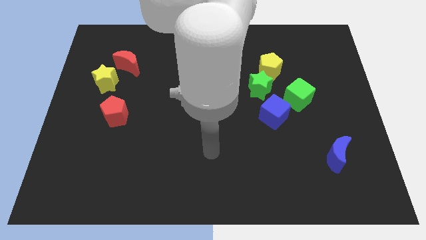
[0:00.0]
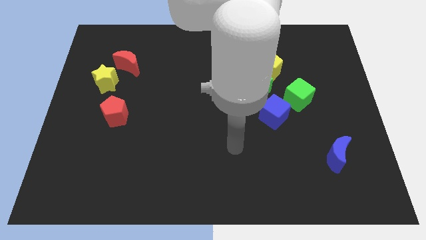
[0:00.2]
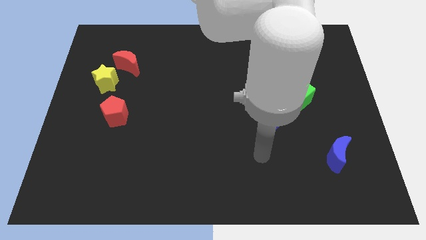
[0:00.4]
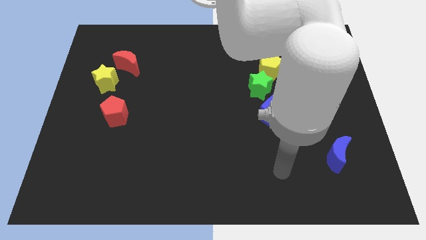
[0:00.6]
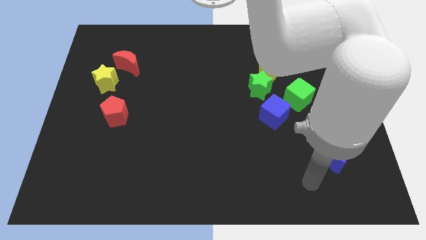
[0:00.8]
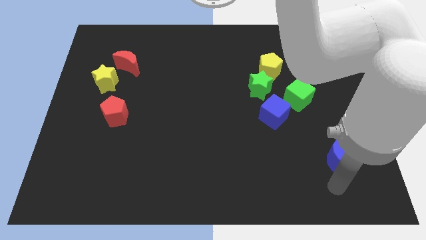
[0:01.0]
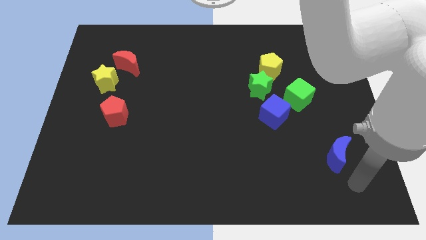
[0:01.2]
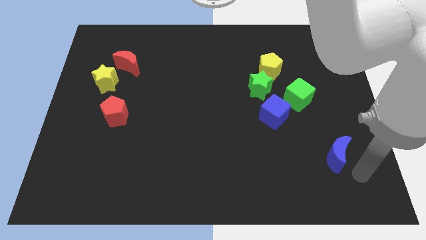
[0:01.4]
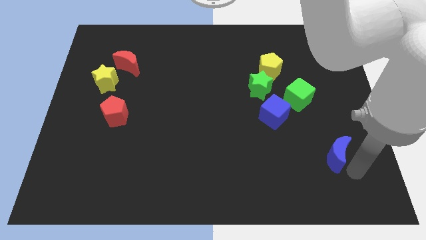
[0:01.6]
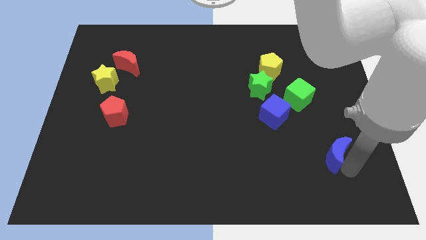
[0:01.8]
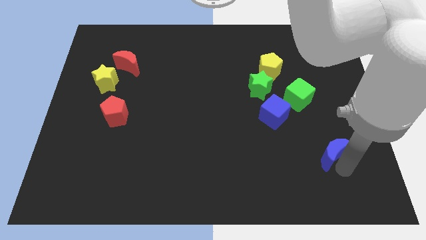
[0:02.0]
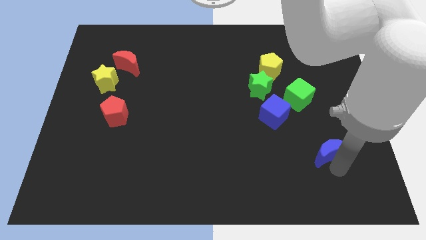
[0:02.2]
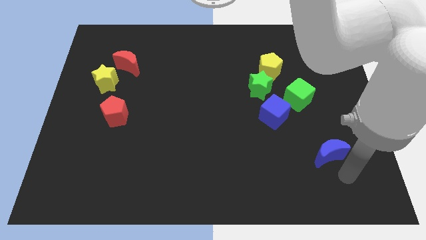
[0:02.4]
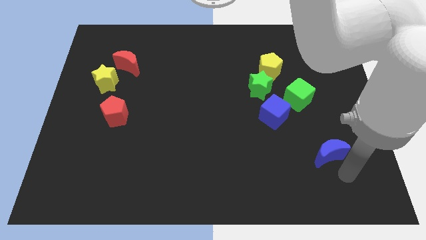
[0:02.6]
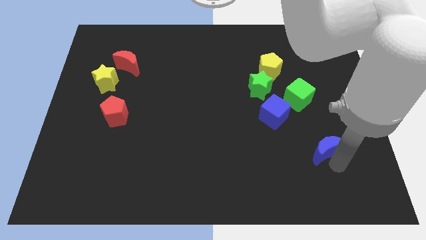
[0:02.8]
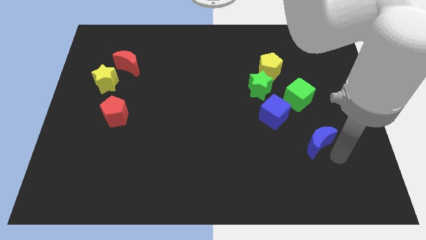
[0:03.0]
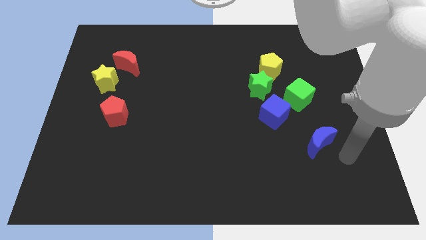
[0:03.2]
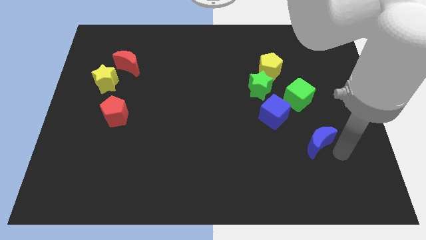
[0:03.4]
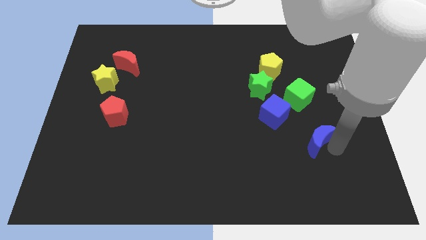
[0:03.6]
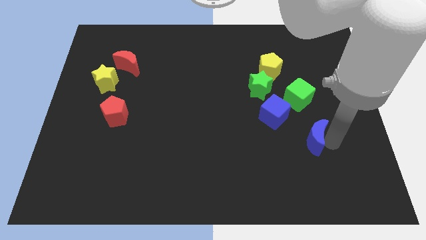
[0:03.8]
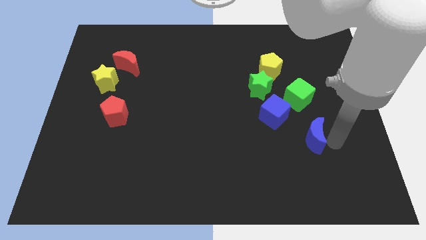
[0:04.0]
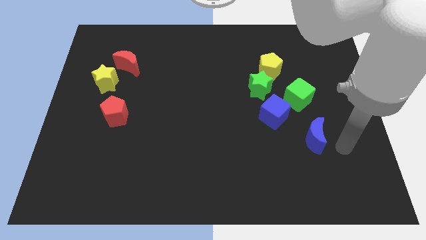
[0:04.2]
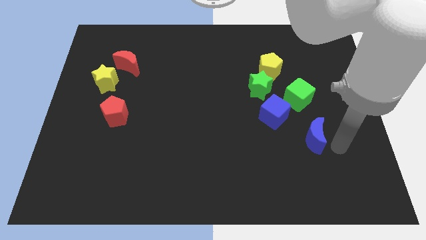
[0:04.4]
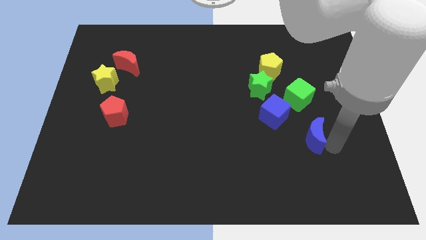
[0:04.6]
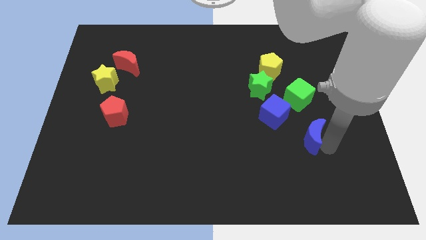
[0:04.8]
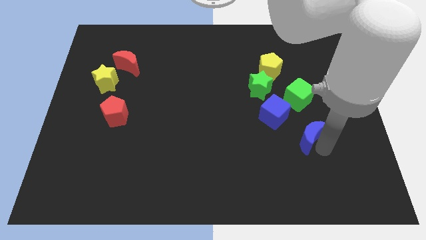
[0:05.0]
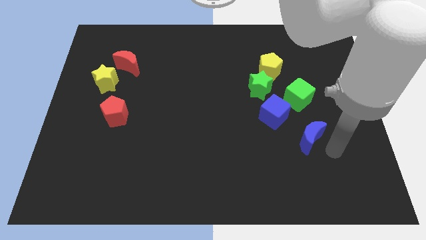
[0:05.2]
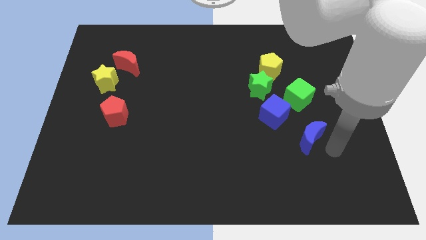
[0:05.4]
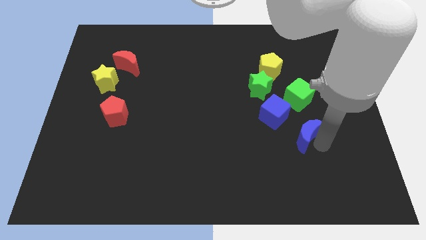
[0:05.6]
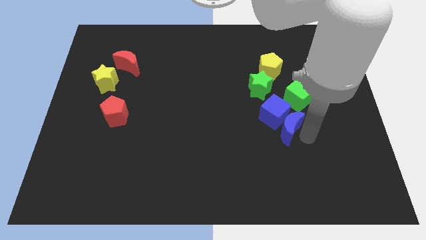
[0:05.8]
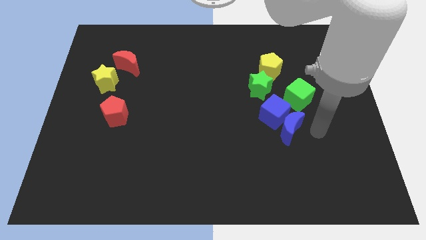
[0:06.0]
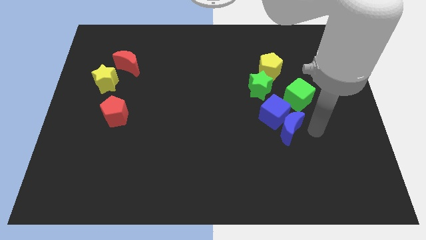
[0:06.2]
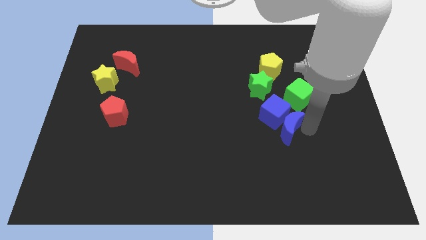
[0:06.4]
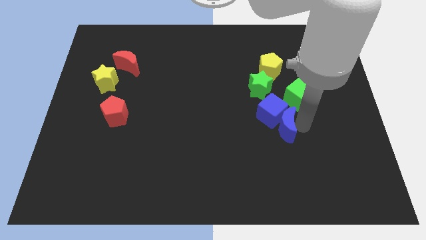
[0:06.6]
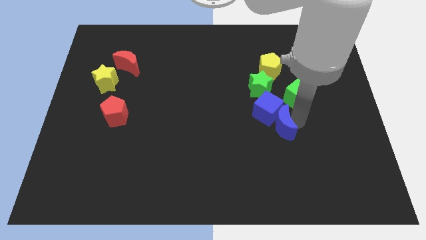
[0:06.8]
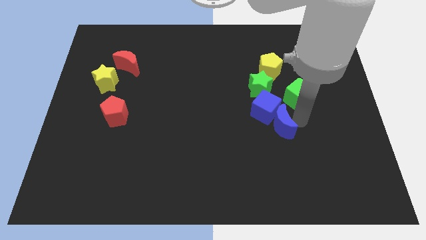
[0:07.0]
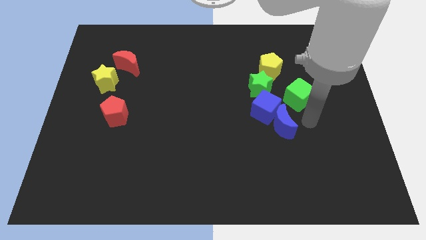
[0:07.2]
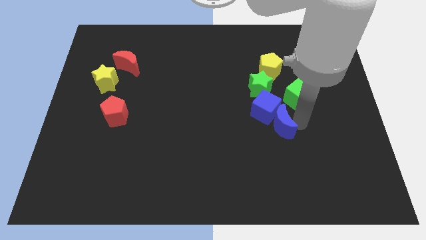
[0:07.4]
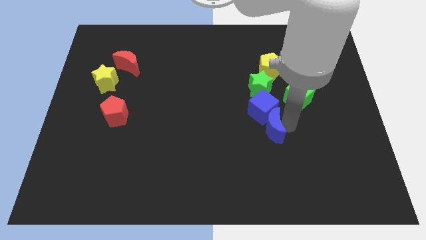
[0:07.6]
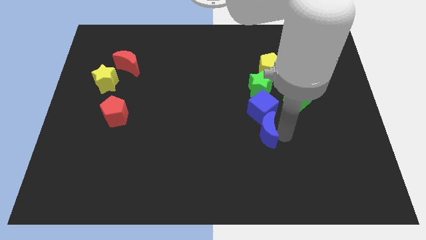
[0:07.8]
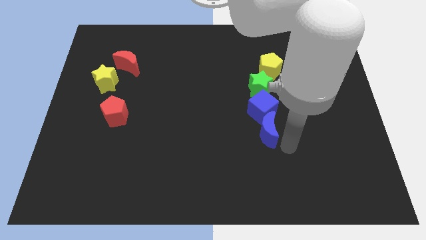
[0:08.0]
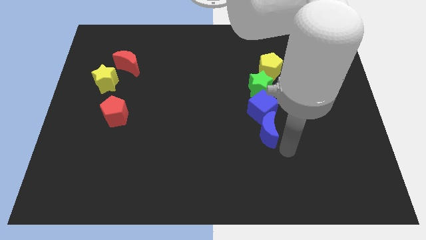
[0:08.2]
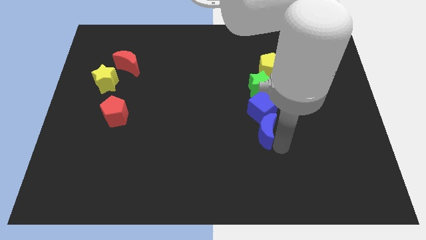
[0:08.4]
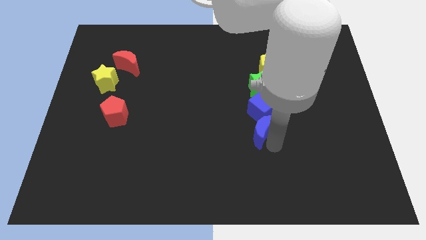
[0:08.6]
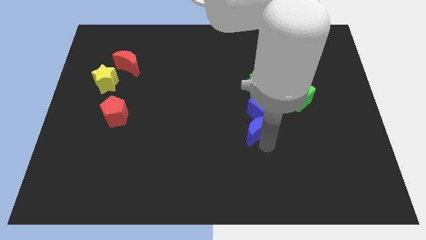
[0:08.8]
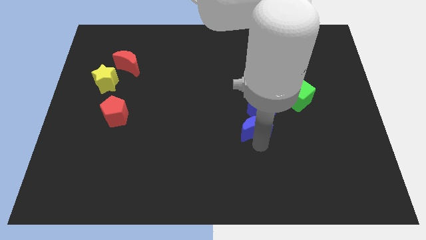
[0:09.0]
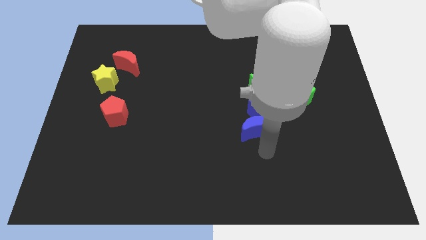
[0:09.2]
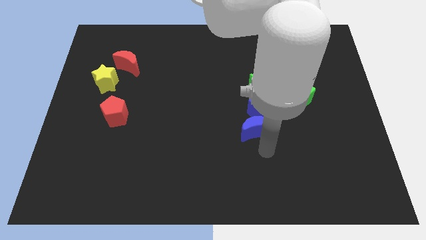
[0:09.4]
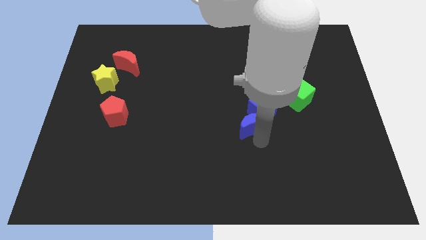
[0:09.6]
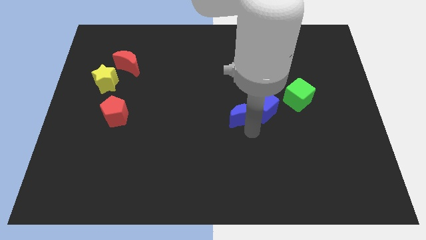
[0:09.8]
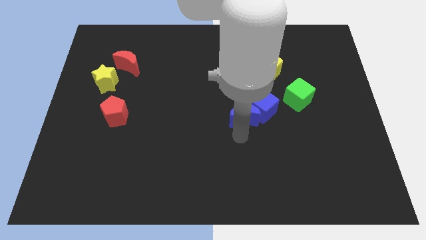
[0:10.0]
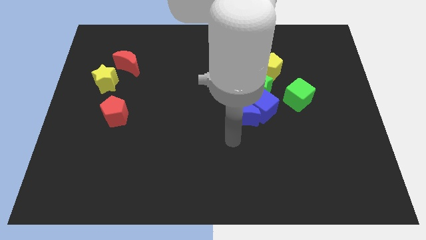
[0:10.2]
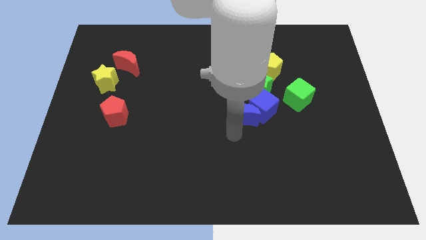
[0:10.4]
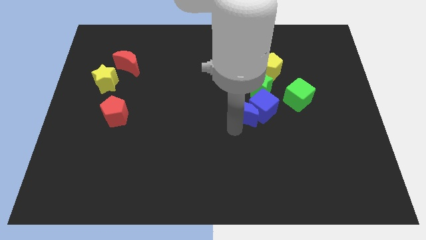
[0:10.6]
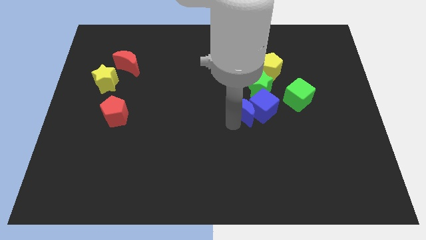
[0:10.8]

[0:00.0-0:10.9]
put the blue moon just left of the green cube

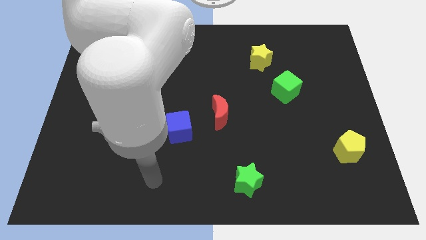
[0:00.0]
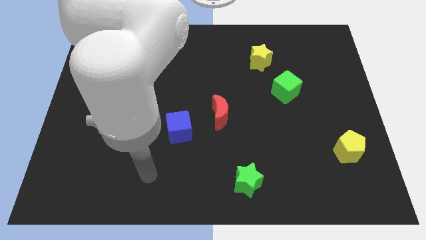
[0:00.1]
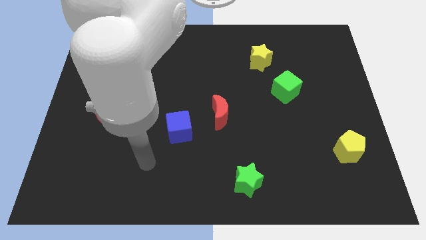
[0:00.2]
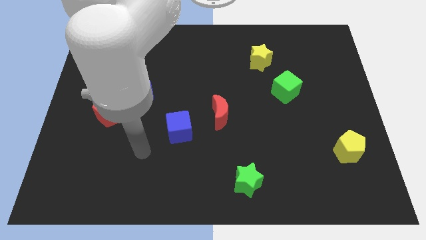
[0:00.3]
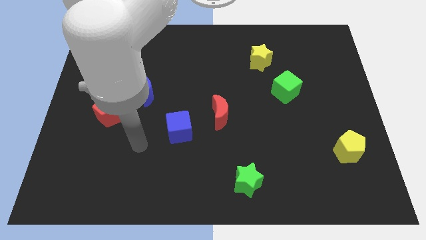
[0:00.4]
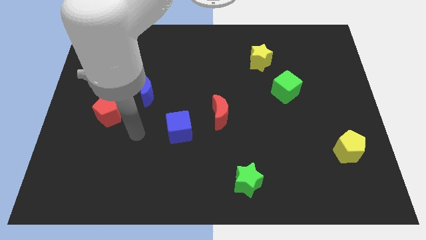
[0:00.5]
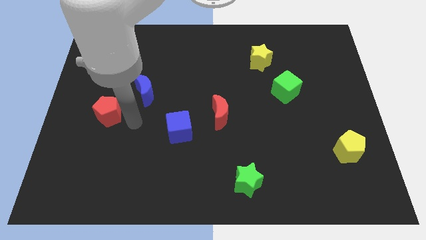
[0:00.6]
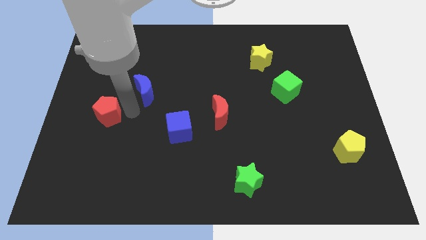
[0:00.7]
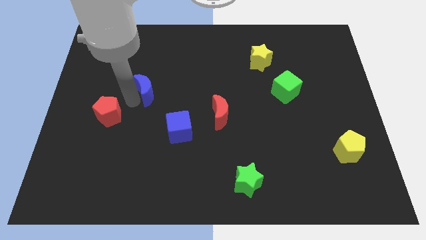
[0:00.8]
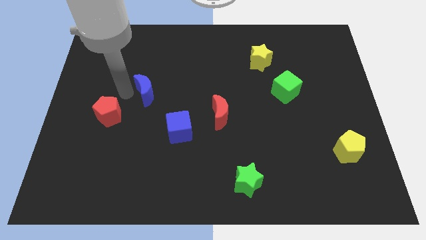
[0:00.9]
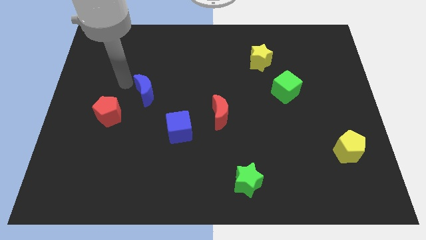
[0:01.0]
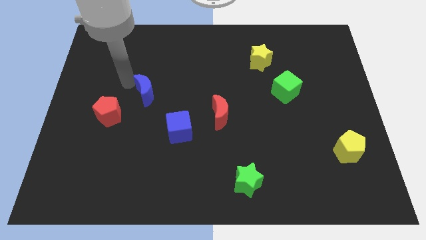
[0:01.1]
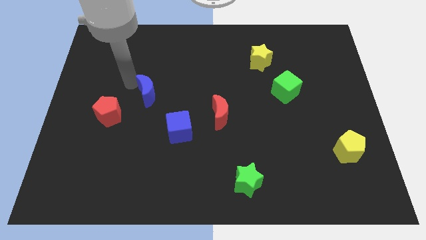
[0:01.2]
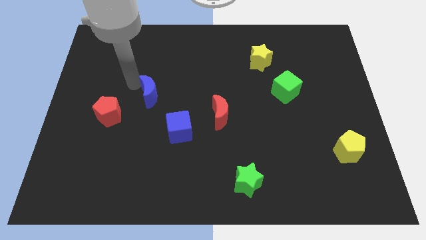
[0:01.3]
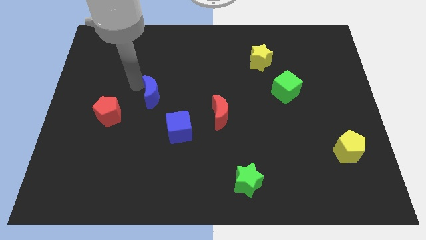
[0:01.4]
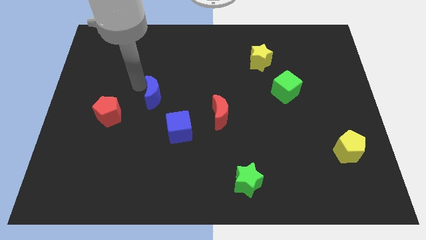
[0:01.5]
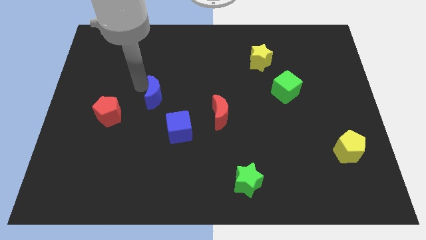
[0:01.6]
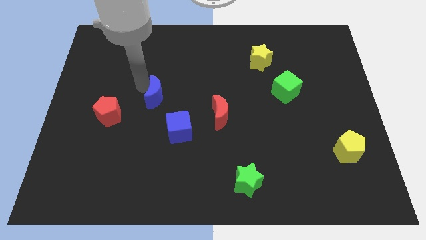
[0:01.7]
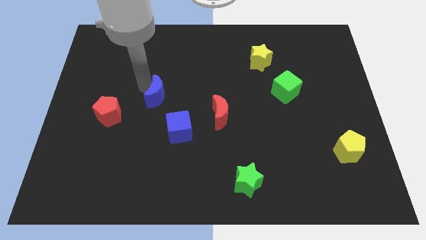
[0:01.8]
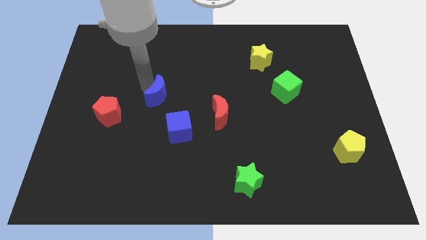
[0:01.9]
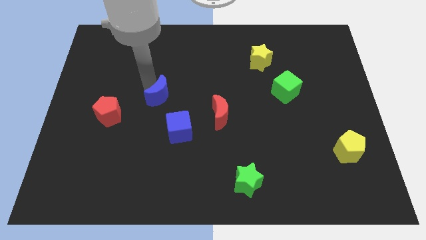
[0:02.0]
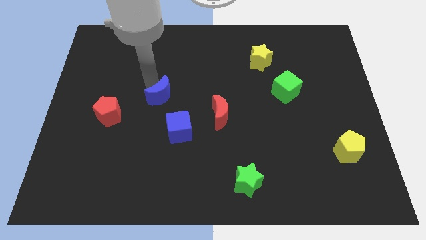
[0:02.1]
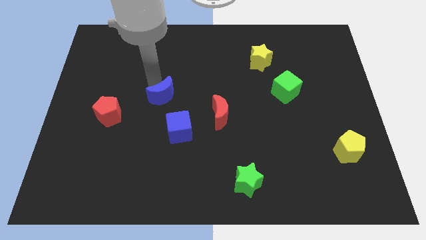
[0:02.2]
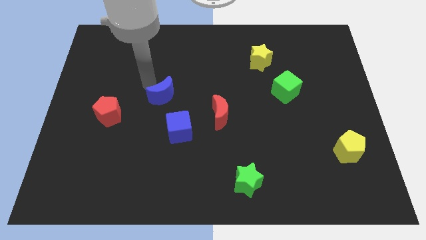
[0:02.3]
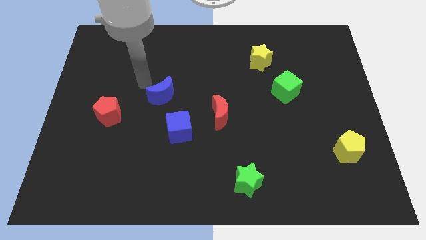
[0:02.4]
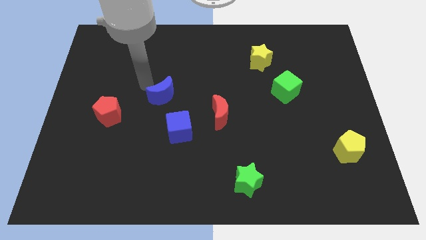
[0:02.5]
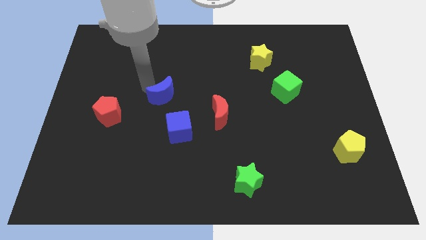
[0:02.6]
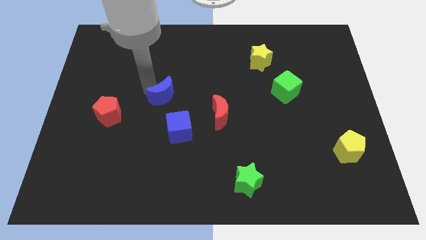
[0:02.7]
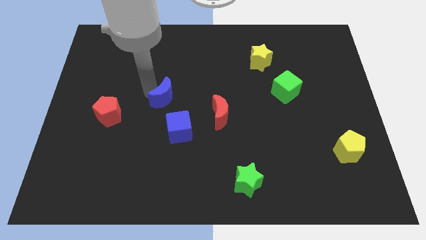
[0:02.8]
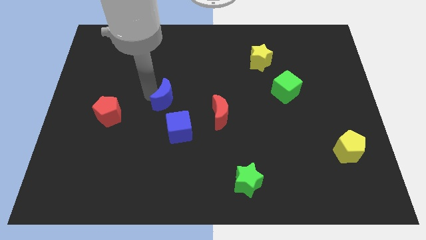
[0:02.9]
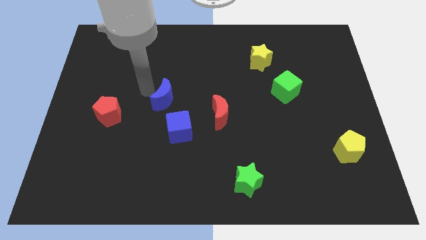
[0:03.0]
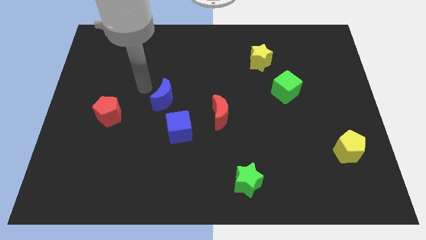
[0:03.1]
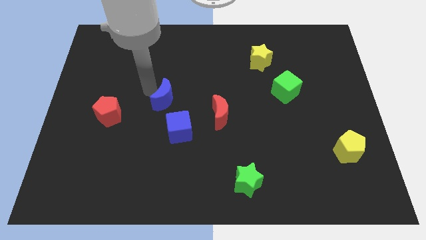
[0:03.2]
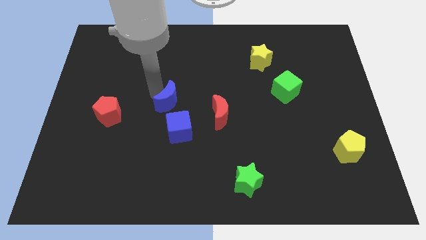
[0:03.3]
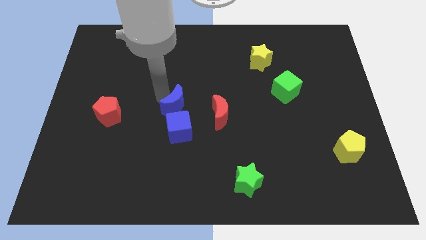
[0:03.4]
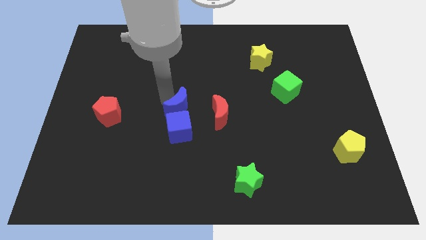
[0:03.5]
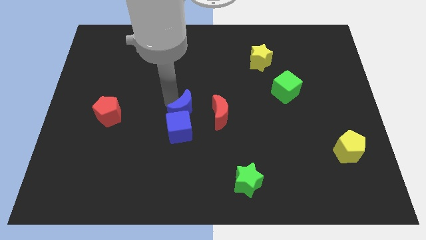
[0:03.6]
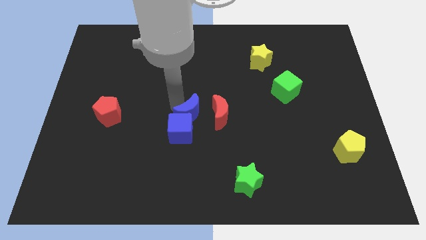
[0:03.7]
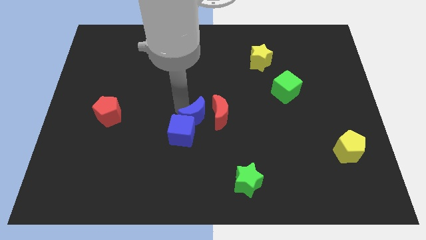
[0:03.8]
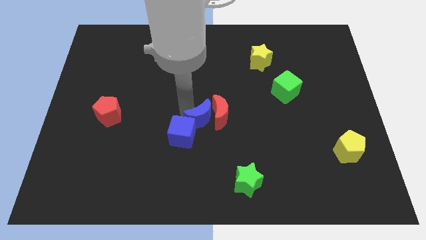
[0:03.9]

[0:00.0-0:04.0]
push the blue moon to the right side of the blue cube
